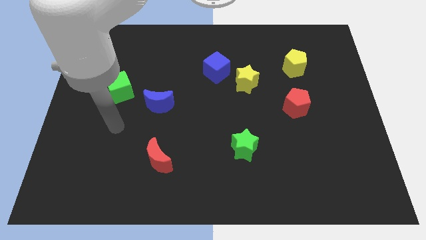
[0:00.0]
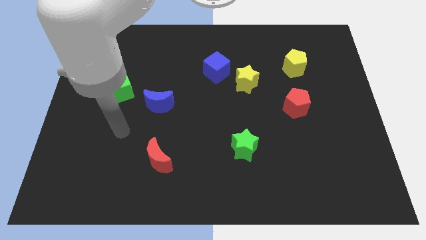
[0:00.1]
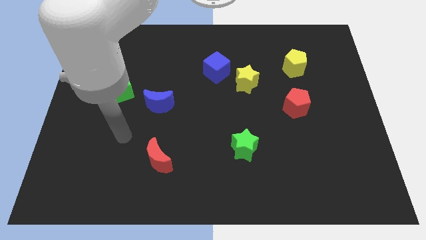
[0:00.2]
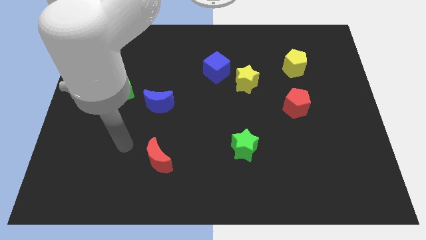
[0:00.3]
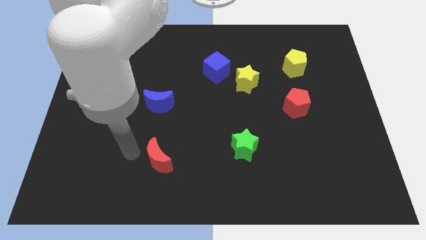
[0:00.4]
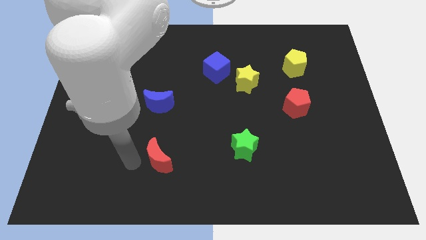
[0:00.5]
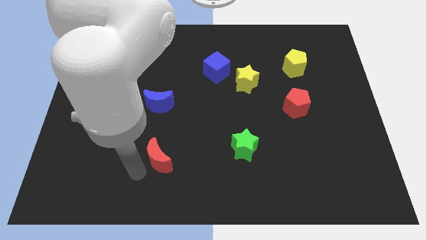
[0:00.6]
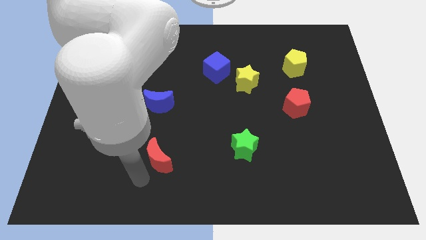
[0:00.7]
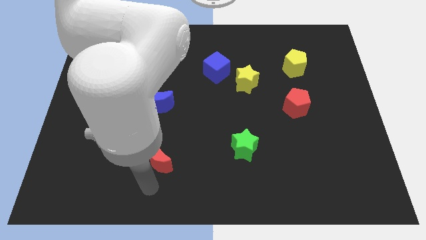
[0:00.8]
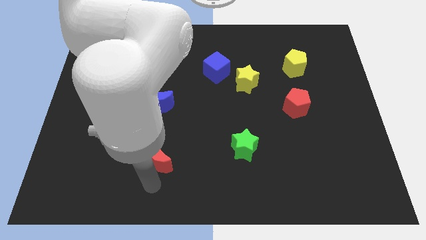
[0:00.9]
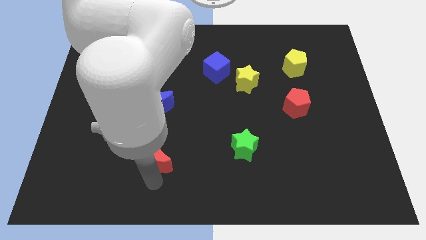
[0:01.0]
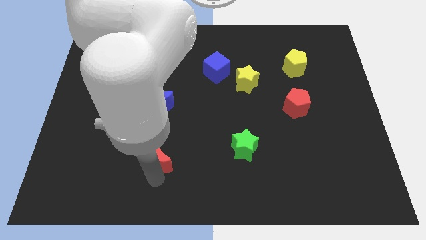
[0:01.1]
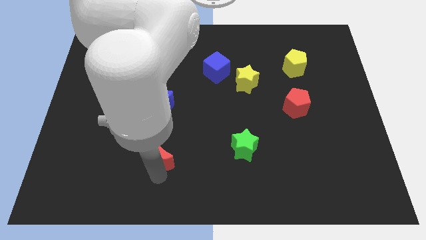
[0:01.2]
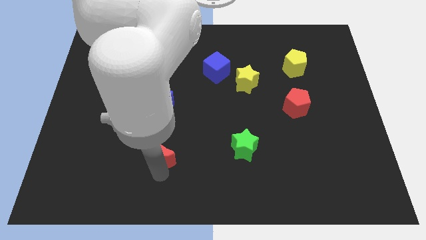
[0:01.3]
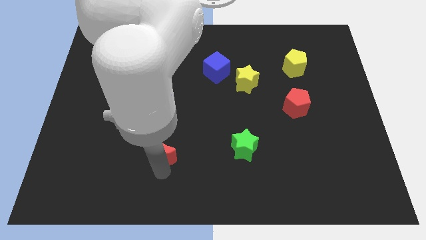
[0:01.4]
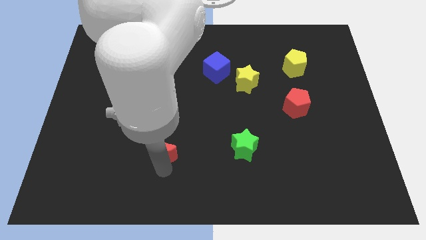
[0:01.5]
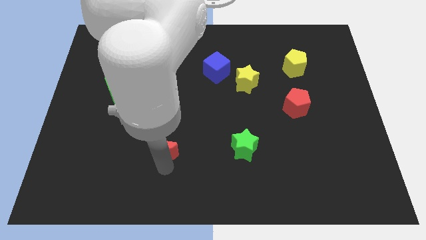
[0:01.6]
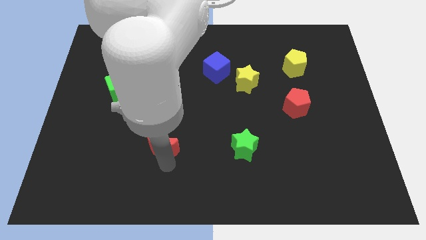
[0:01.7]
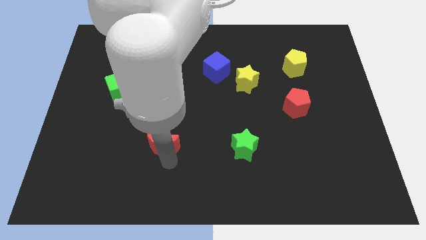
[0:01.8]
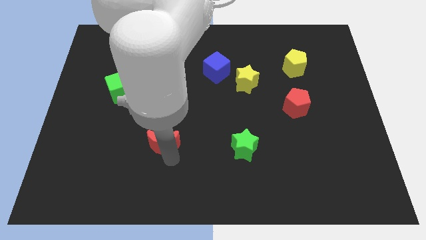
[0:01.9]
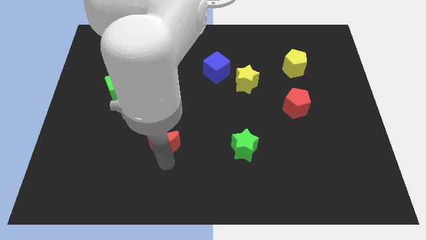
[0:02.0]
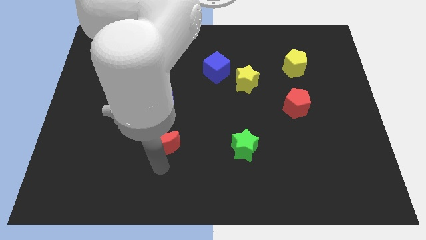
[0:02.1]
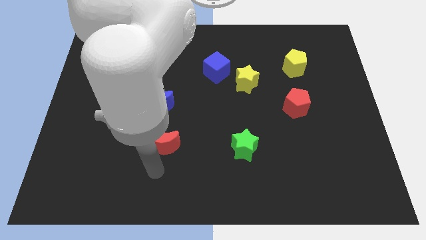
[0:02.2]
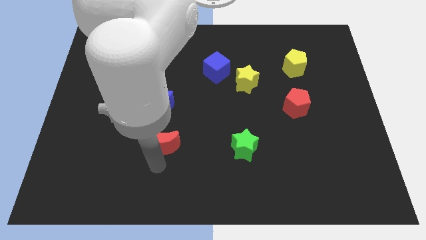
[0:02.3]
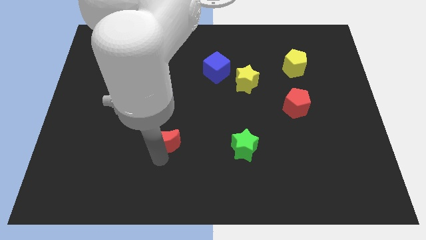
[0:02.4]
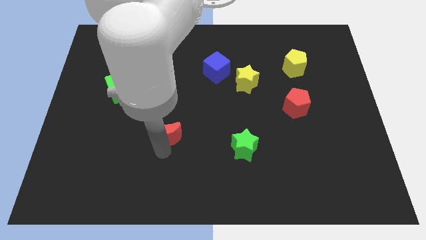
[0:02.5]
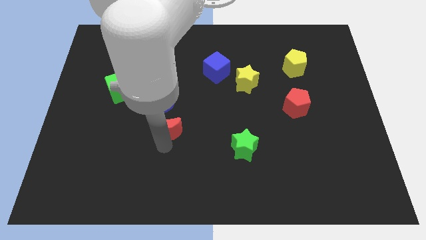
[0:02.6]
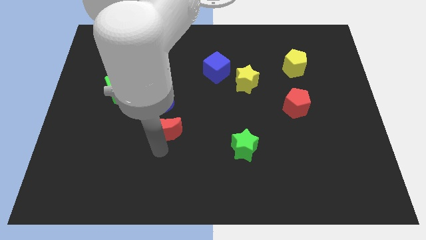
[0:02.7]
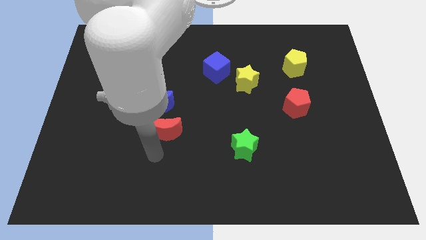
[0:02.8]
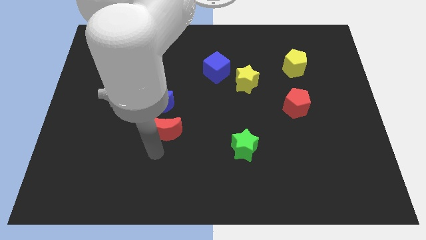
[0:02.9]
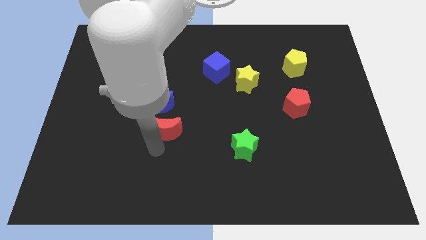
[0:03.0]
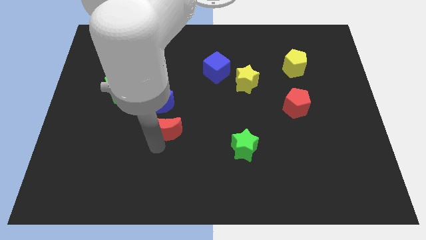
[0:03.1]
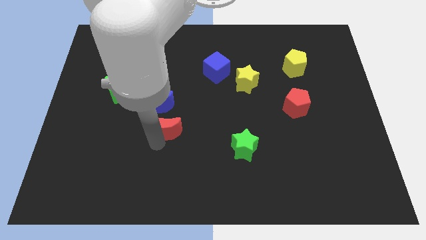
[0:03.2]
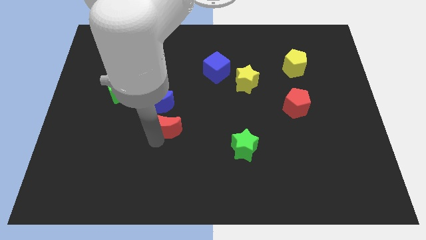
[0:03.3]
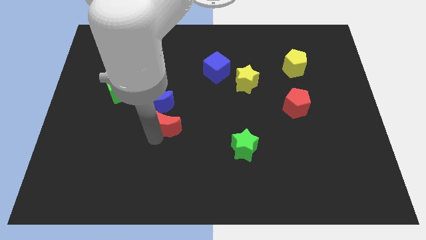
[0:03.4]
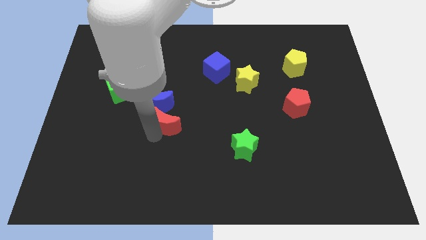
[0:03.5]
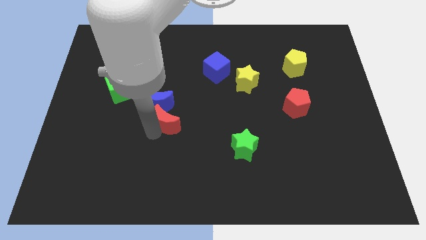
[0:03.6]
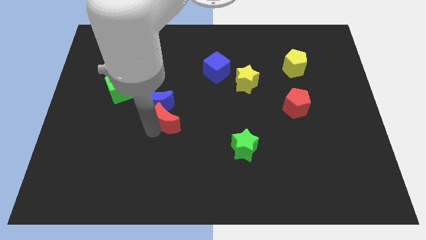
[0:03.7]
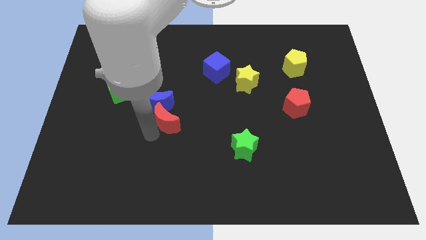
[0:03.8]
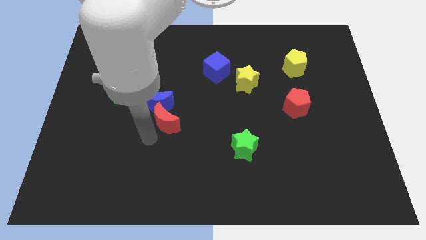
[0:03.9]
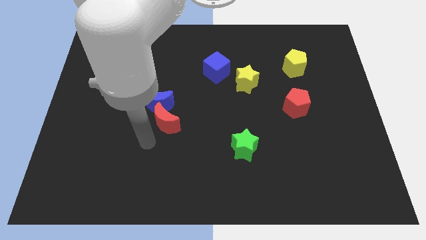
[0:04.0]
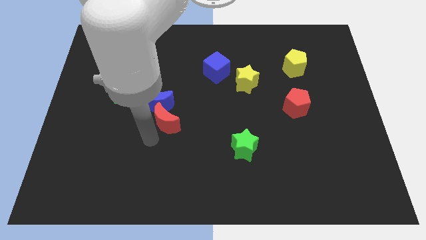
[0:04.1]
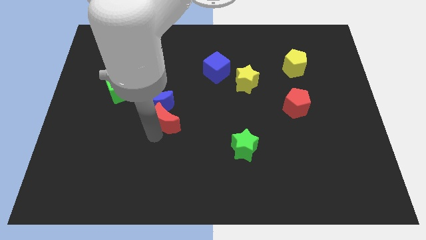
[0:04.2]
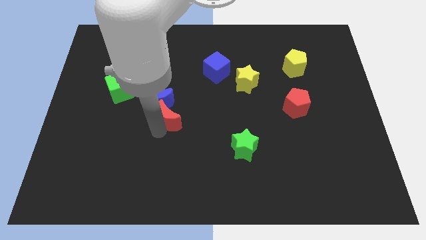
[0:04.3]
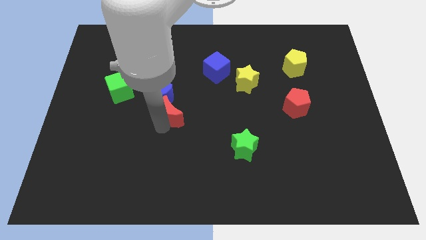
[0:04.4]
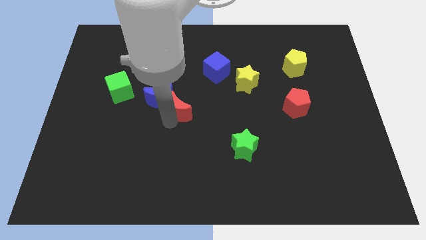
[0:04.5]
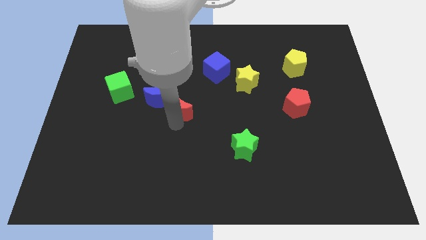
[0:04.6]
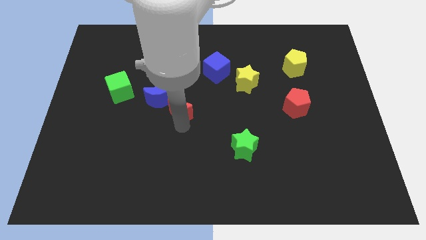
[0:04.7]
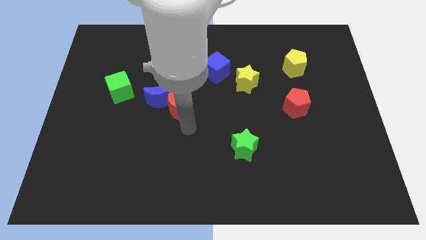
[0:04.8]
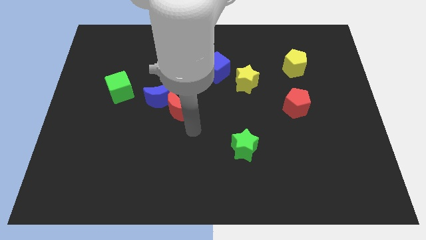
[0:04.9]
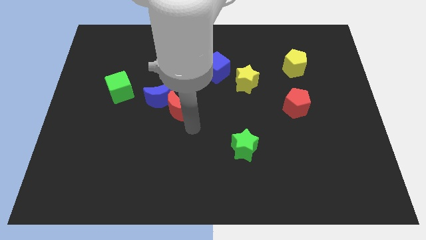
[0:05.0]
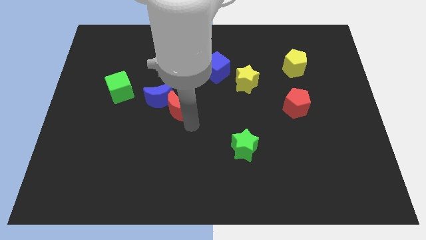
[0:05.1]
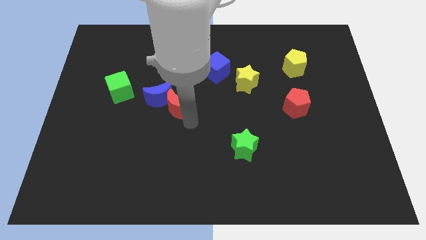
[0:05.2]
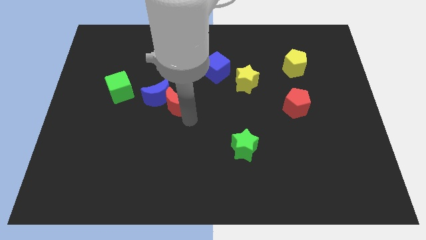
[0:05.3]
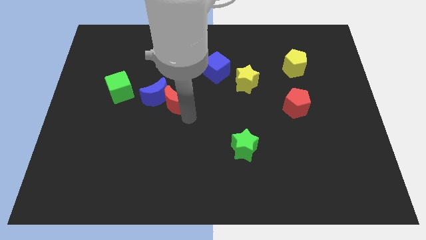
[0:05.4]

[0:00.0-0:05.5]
push the red moon just right of the green cube

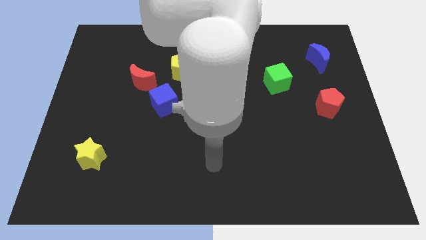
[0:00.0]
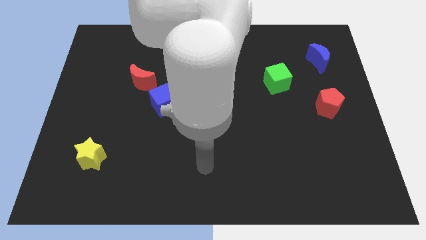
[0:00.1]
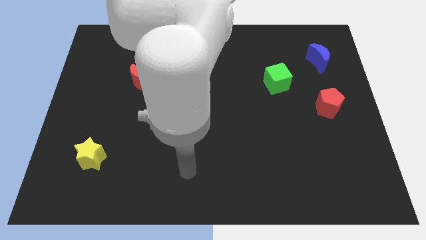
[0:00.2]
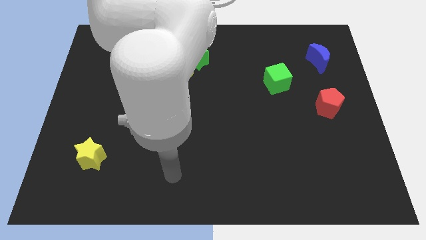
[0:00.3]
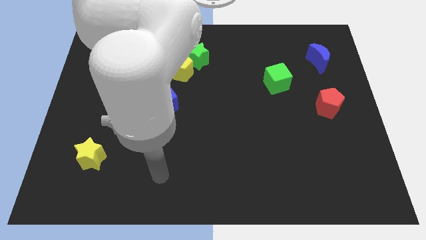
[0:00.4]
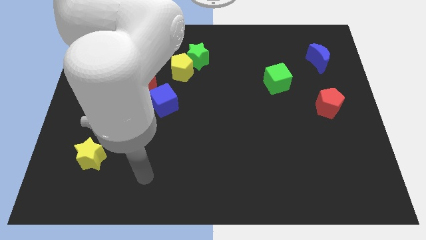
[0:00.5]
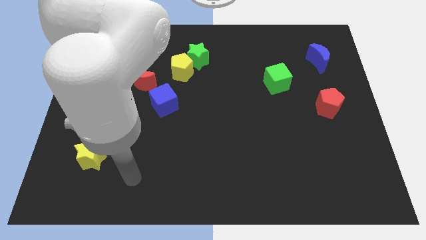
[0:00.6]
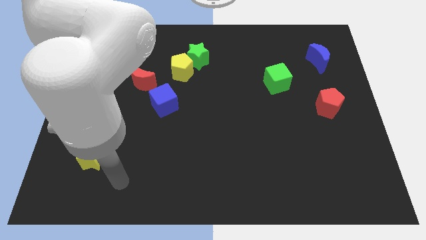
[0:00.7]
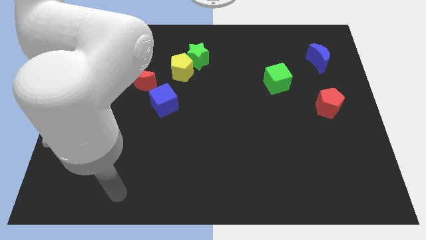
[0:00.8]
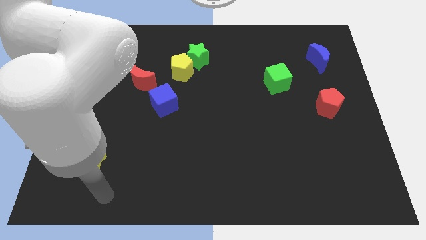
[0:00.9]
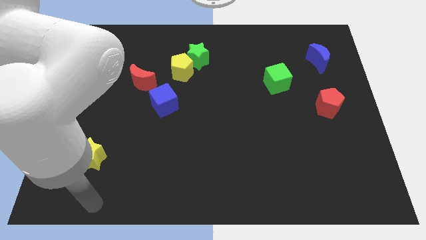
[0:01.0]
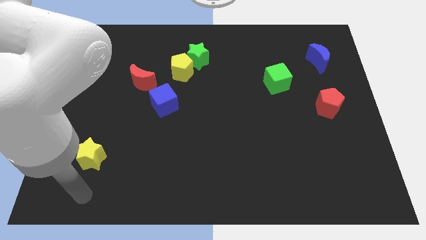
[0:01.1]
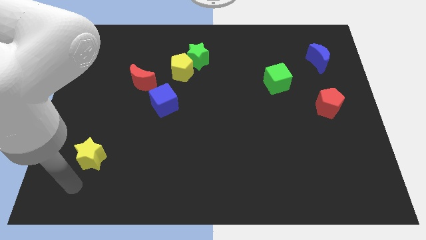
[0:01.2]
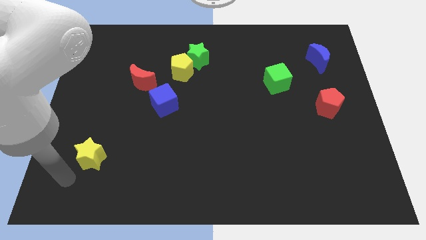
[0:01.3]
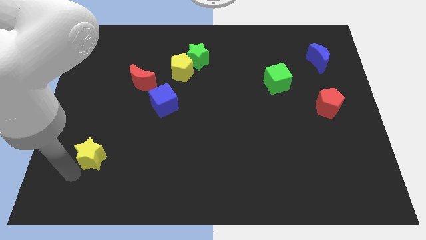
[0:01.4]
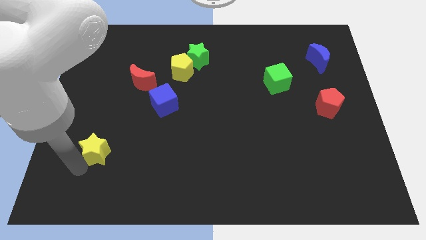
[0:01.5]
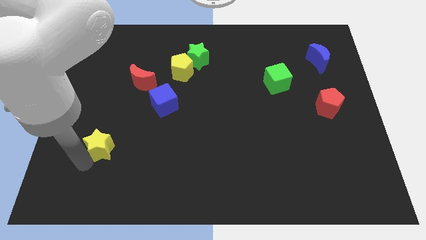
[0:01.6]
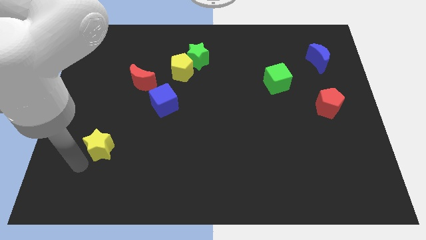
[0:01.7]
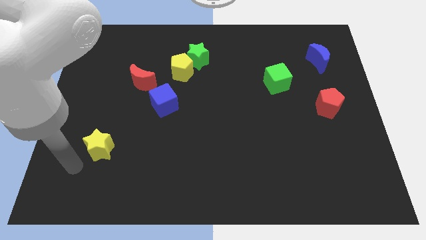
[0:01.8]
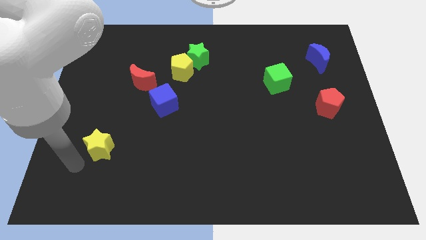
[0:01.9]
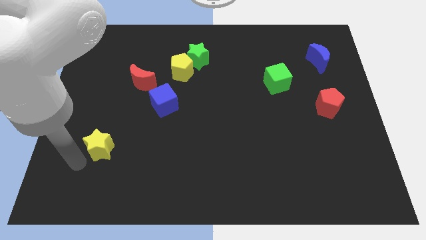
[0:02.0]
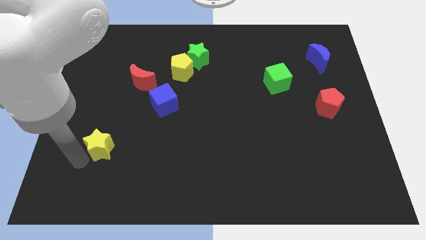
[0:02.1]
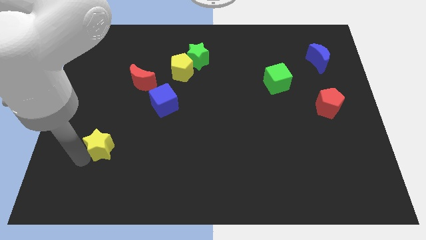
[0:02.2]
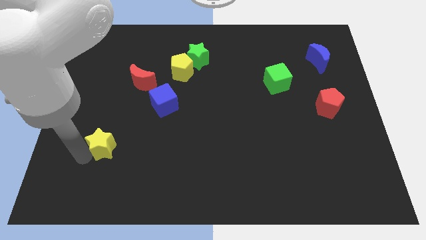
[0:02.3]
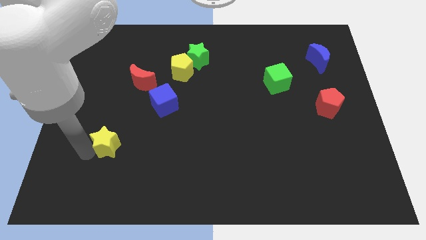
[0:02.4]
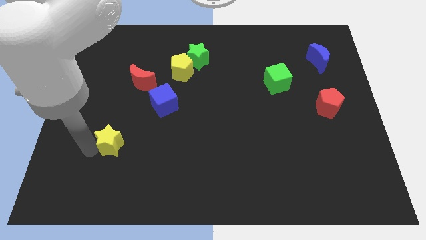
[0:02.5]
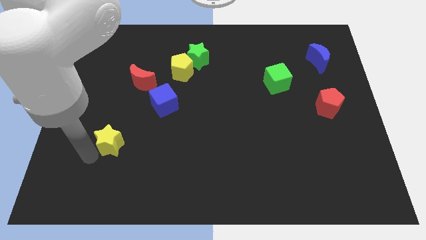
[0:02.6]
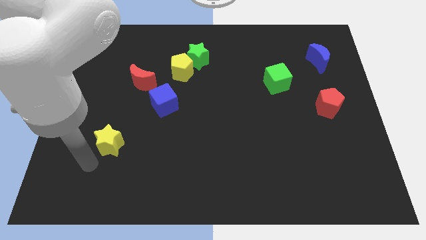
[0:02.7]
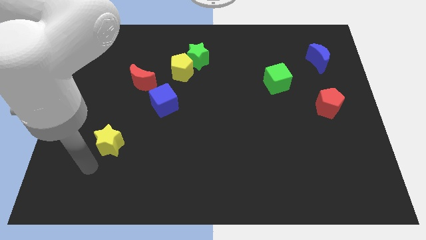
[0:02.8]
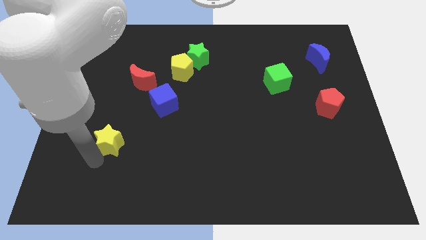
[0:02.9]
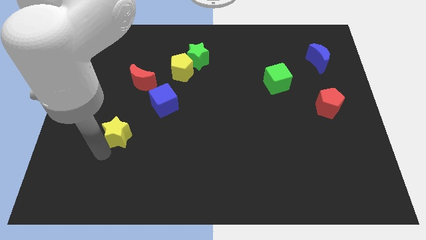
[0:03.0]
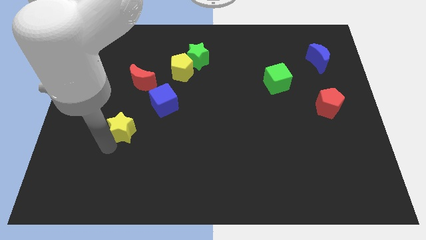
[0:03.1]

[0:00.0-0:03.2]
slide the yellow star to the bottom of the red moon
